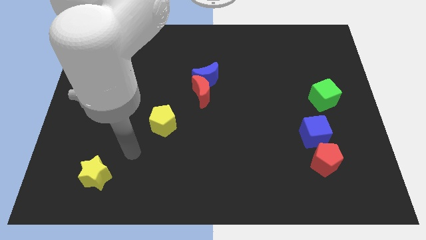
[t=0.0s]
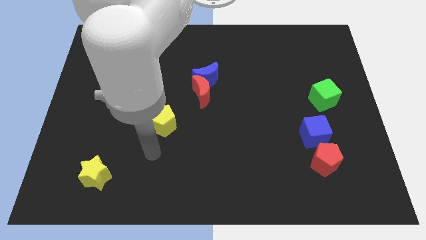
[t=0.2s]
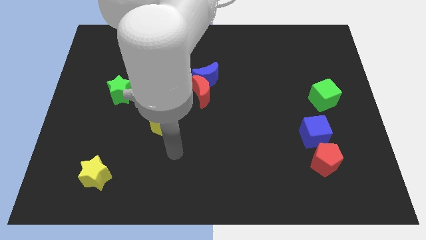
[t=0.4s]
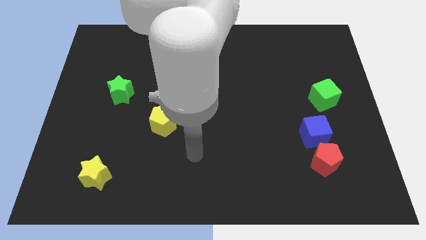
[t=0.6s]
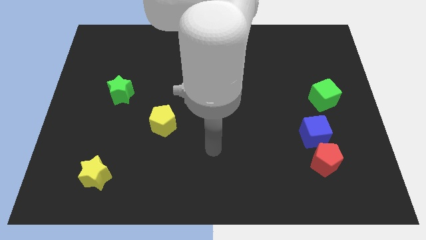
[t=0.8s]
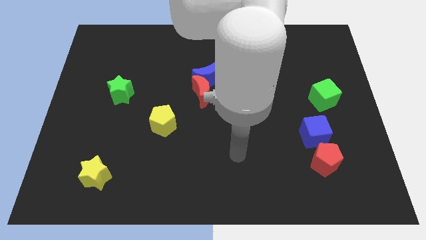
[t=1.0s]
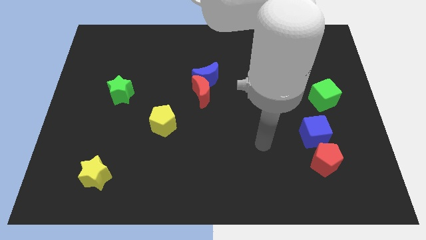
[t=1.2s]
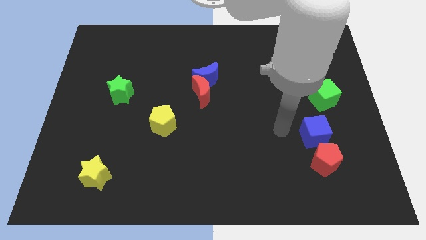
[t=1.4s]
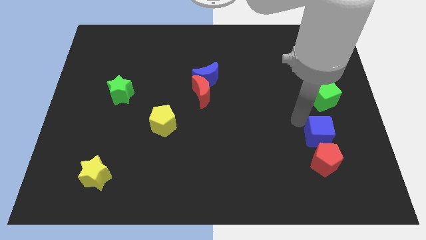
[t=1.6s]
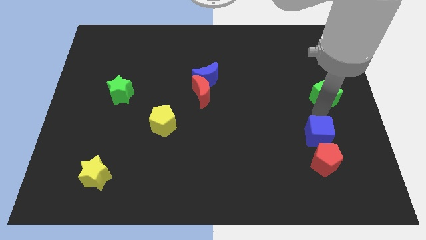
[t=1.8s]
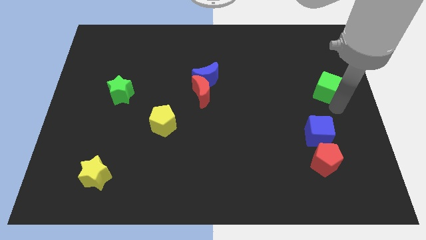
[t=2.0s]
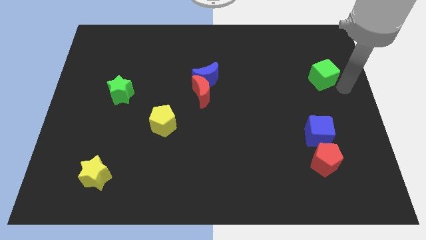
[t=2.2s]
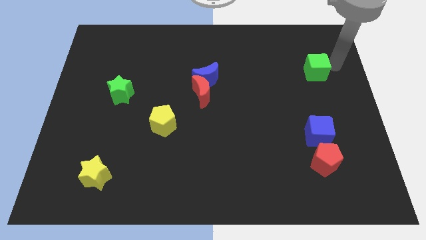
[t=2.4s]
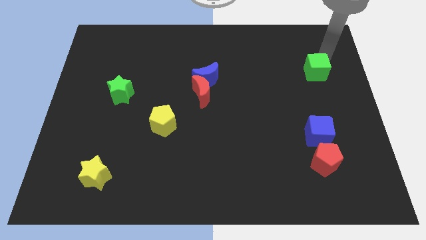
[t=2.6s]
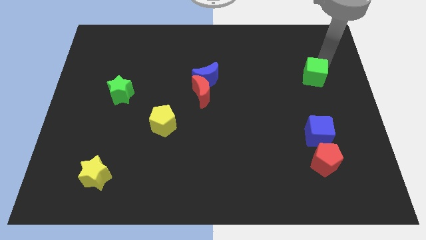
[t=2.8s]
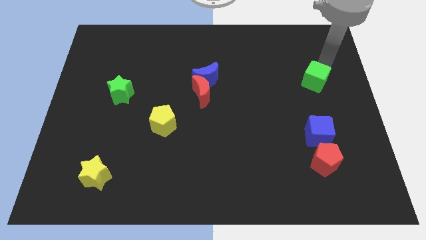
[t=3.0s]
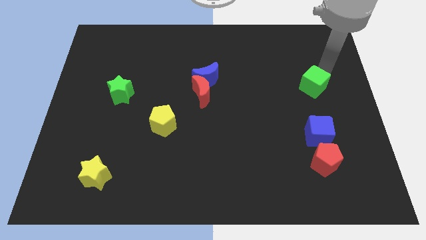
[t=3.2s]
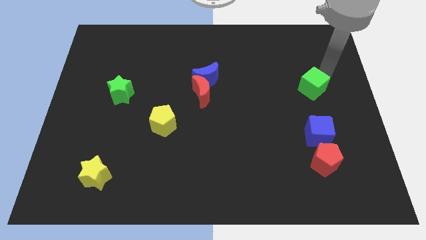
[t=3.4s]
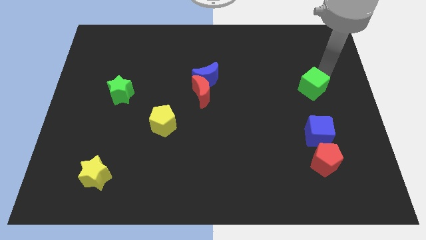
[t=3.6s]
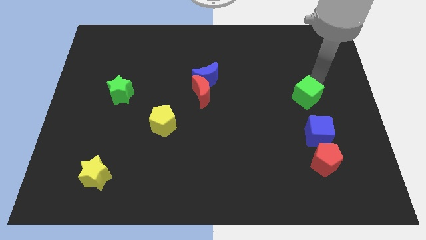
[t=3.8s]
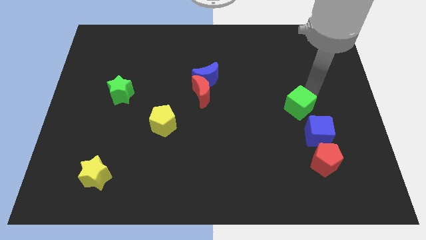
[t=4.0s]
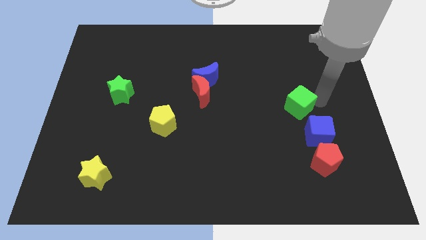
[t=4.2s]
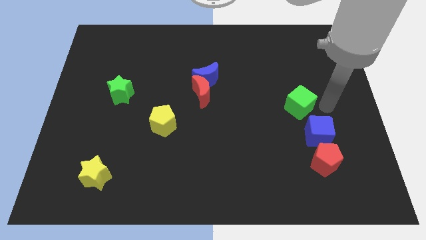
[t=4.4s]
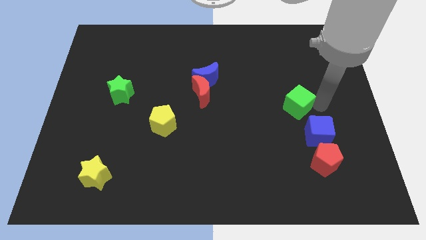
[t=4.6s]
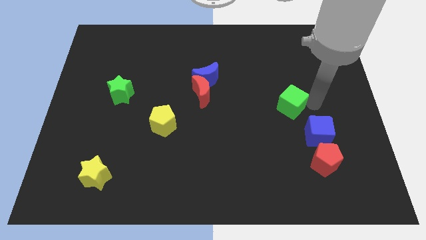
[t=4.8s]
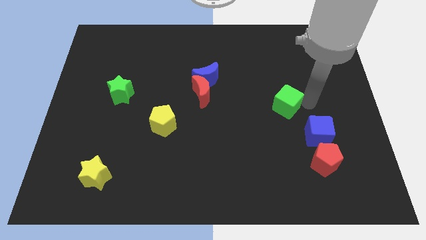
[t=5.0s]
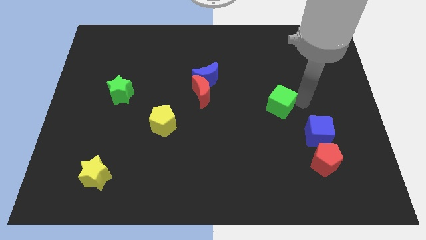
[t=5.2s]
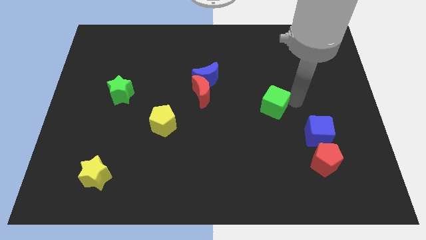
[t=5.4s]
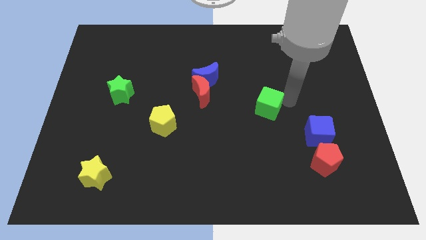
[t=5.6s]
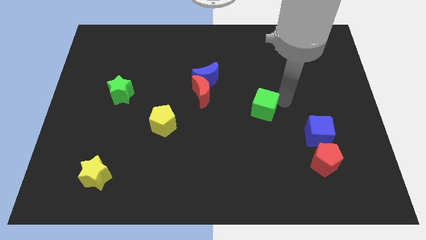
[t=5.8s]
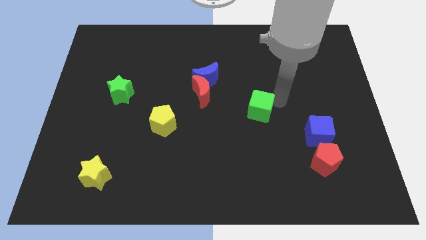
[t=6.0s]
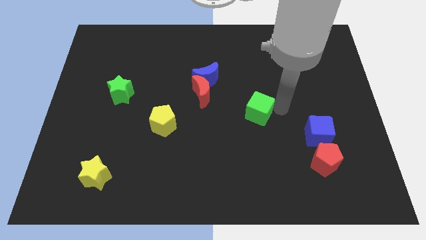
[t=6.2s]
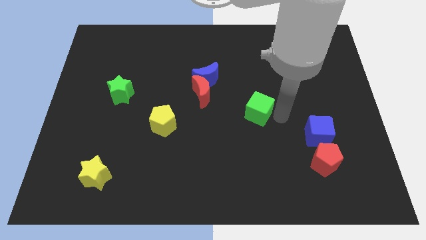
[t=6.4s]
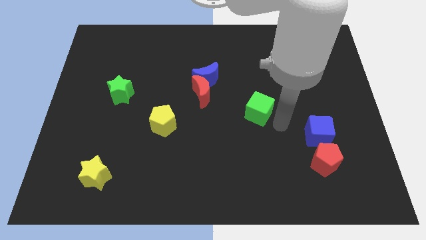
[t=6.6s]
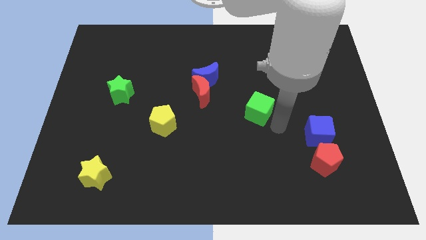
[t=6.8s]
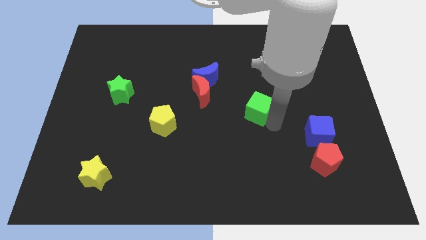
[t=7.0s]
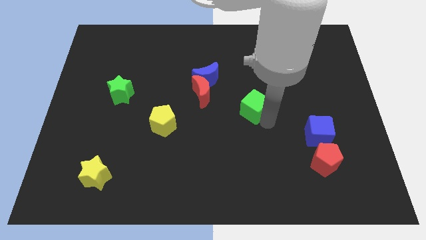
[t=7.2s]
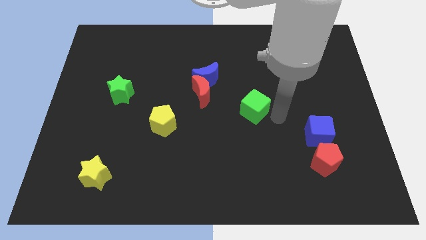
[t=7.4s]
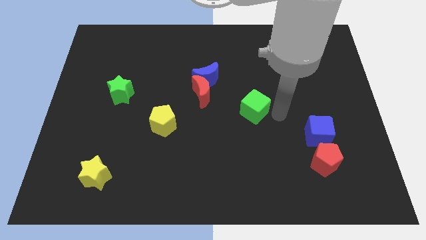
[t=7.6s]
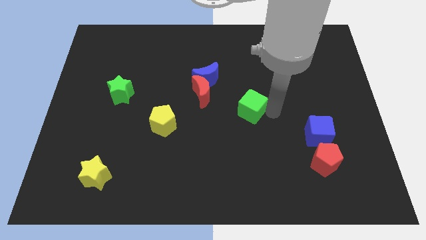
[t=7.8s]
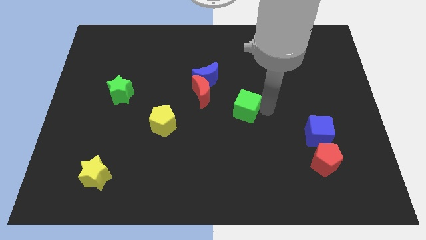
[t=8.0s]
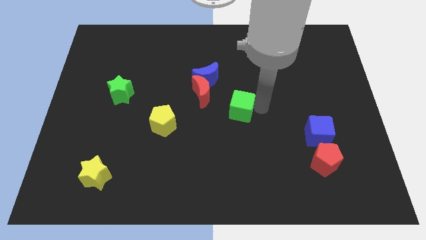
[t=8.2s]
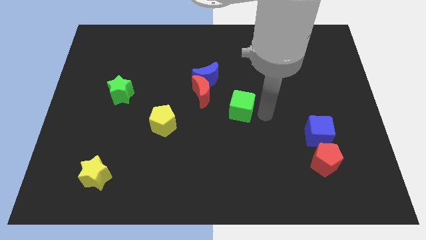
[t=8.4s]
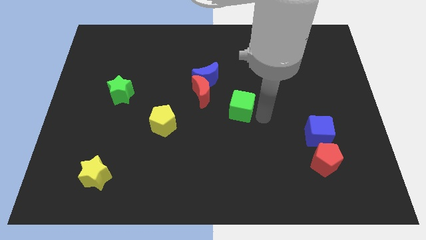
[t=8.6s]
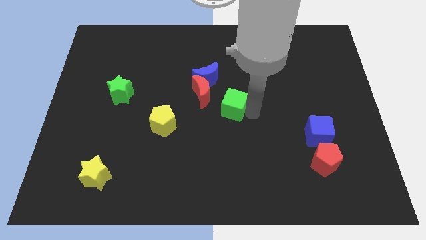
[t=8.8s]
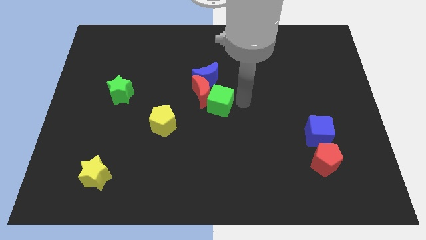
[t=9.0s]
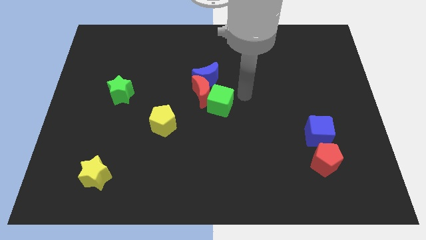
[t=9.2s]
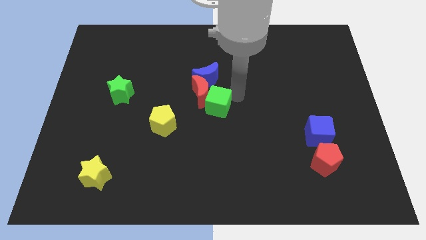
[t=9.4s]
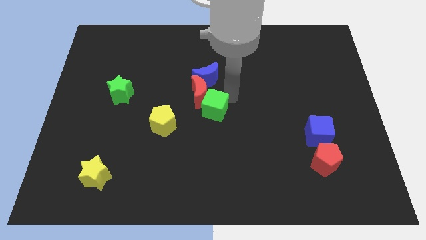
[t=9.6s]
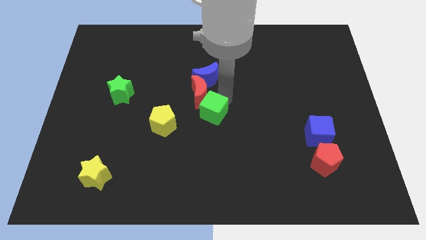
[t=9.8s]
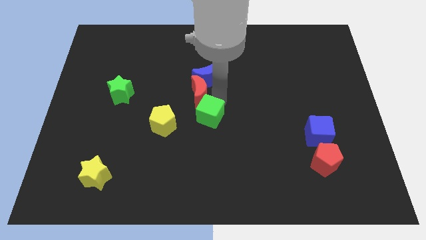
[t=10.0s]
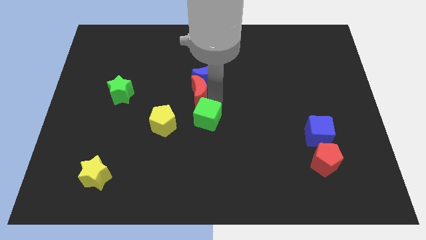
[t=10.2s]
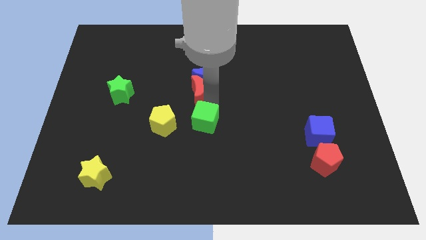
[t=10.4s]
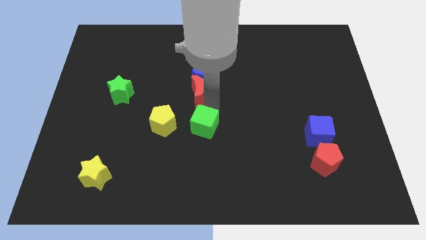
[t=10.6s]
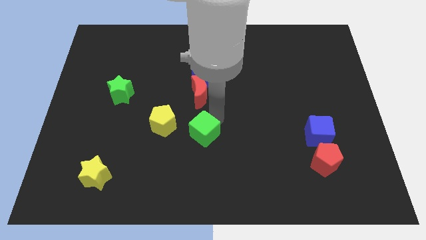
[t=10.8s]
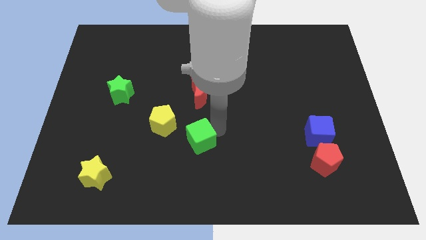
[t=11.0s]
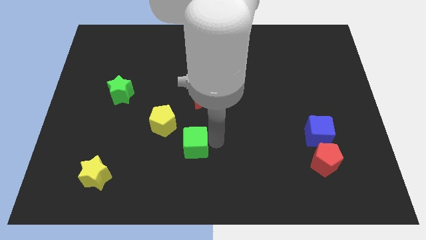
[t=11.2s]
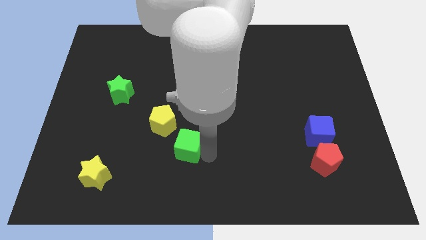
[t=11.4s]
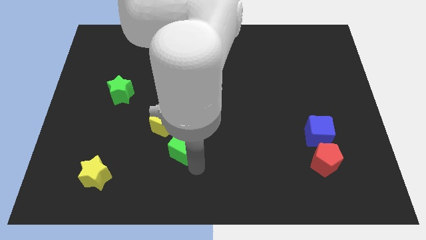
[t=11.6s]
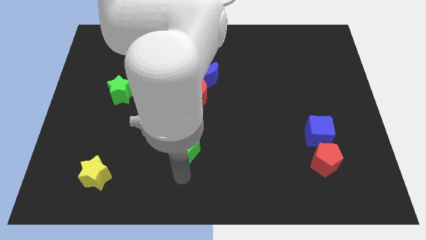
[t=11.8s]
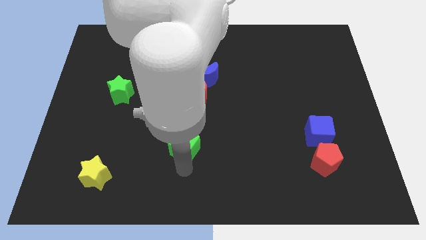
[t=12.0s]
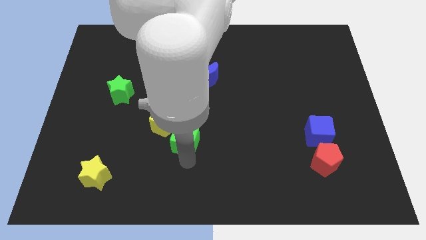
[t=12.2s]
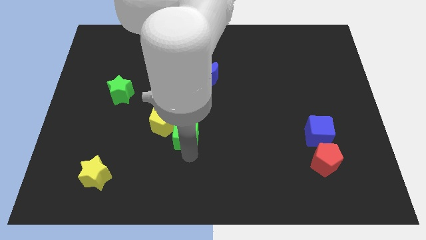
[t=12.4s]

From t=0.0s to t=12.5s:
push the green cube next to the yellow pentagon

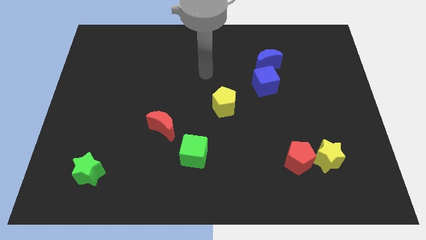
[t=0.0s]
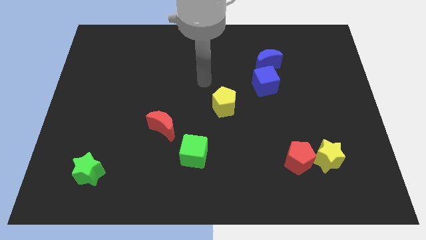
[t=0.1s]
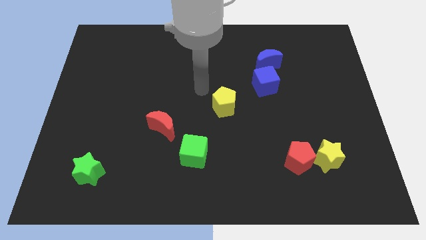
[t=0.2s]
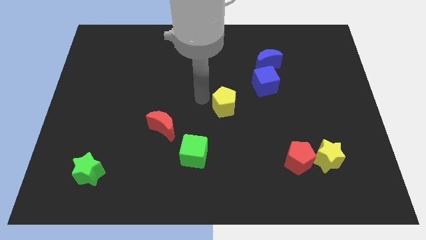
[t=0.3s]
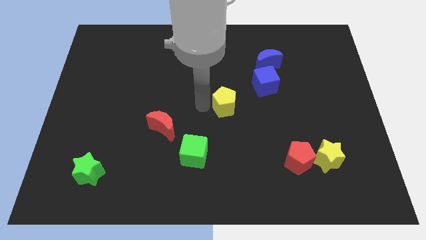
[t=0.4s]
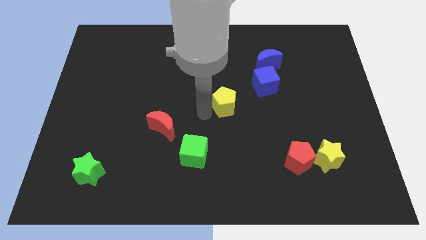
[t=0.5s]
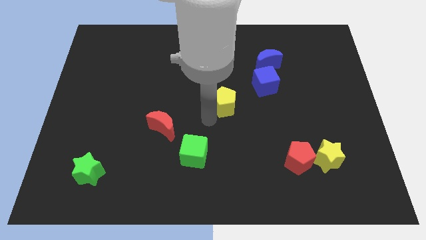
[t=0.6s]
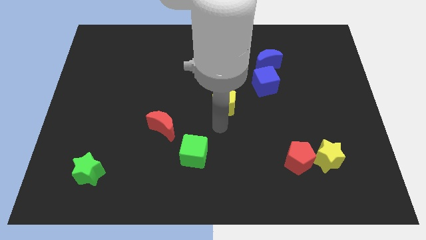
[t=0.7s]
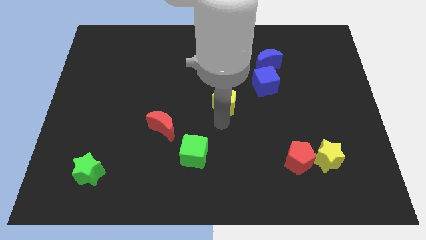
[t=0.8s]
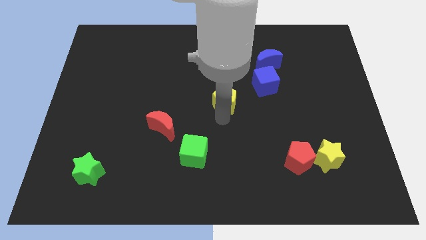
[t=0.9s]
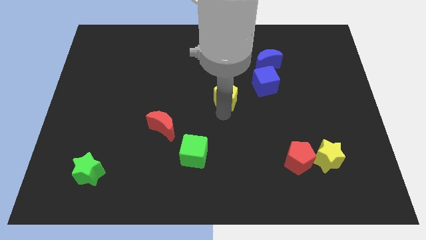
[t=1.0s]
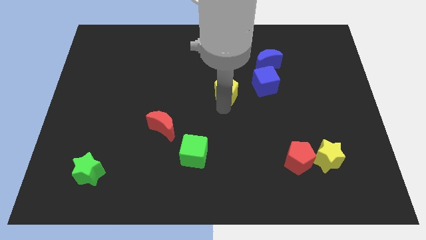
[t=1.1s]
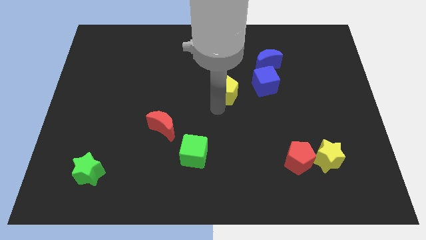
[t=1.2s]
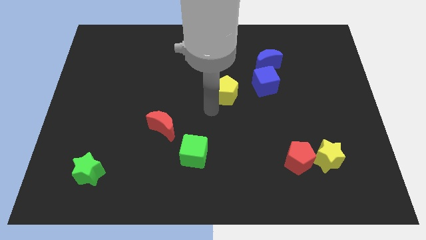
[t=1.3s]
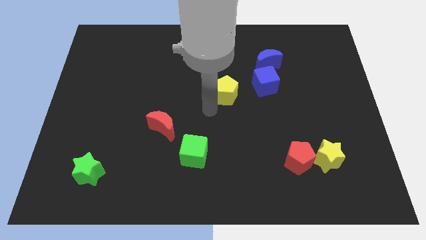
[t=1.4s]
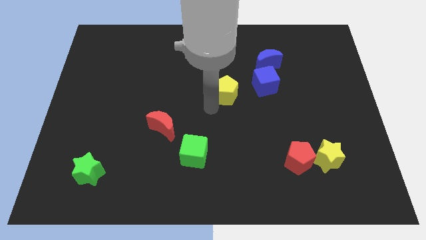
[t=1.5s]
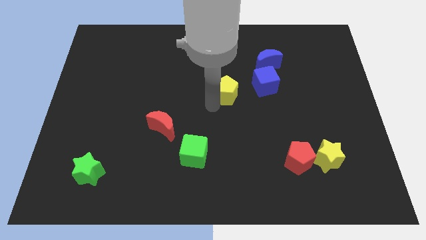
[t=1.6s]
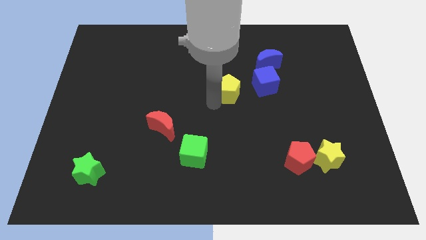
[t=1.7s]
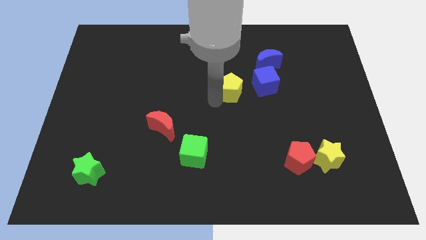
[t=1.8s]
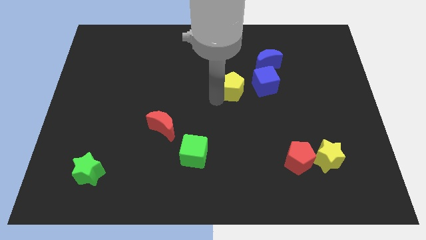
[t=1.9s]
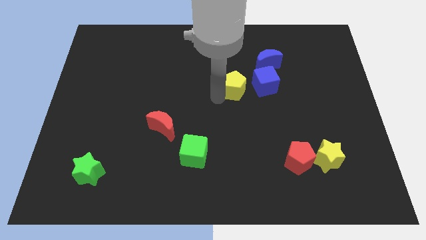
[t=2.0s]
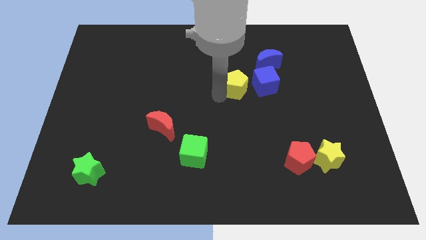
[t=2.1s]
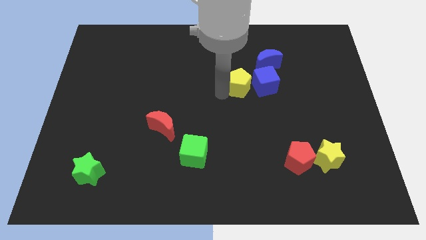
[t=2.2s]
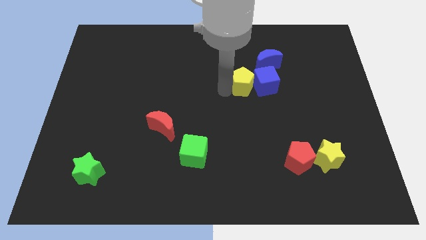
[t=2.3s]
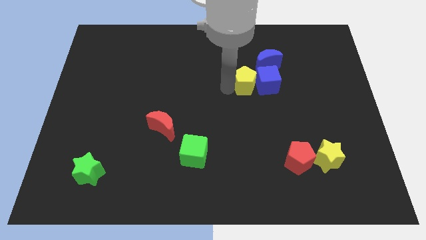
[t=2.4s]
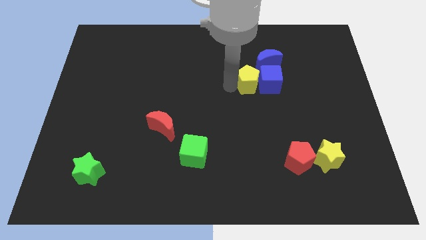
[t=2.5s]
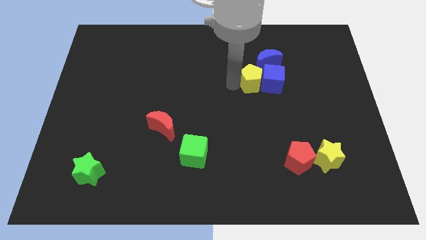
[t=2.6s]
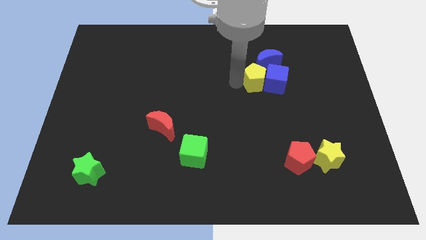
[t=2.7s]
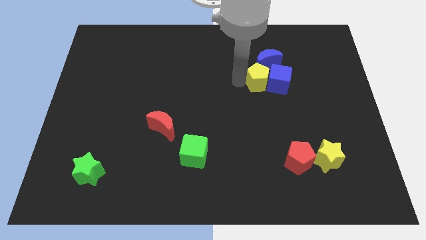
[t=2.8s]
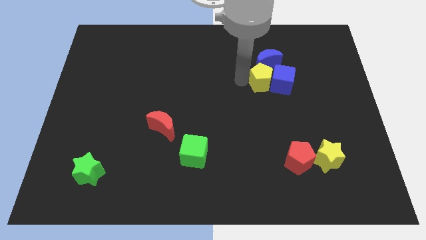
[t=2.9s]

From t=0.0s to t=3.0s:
put the yellow pentagon towards the blue moon
